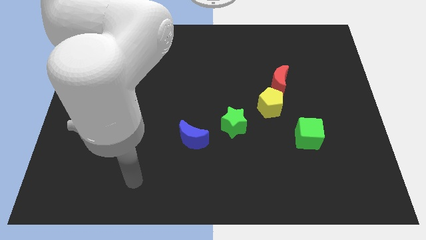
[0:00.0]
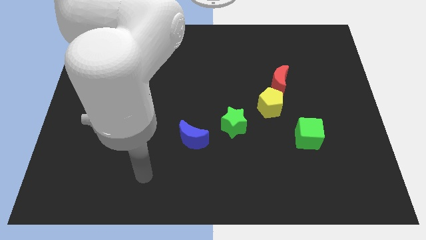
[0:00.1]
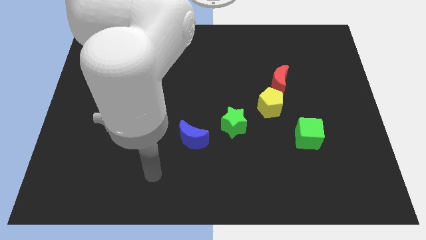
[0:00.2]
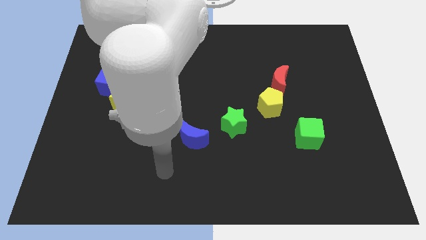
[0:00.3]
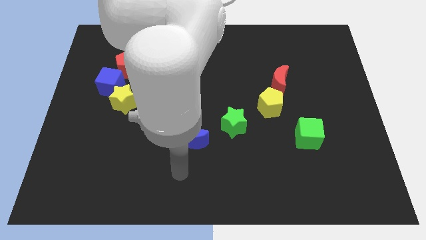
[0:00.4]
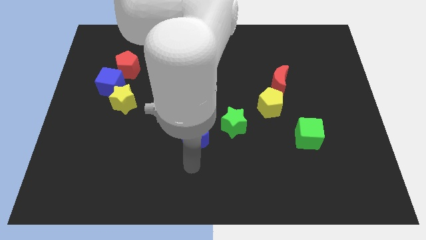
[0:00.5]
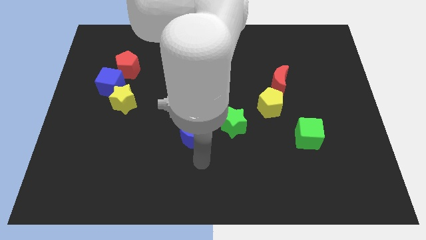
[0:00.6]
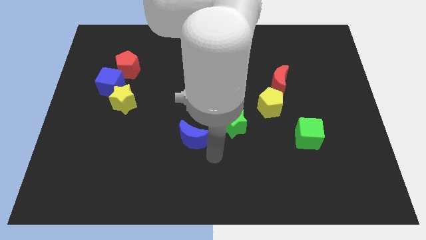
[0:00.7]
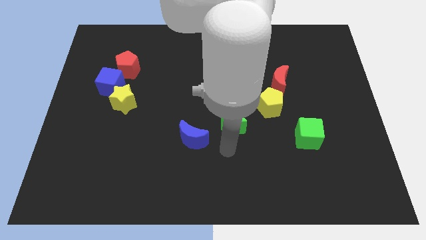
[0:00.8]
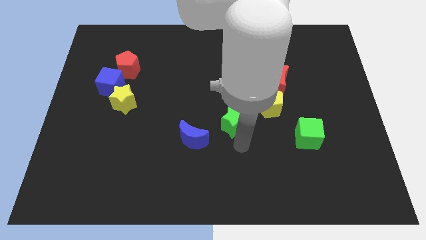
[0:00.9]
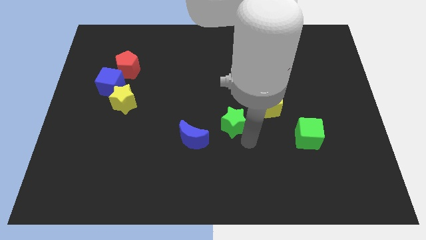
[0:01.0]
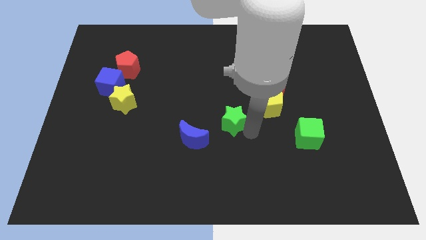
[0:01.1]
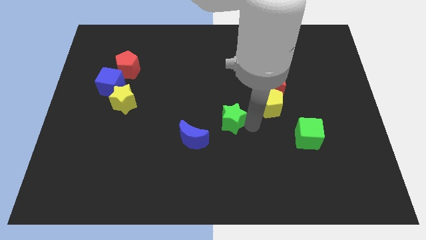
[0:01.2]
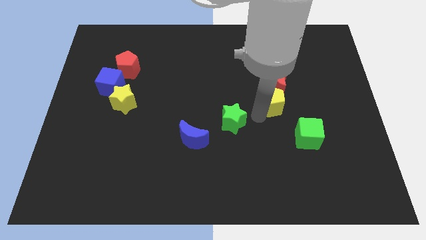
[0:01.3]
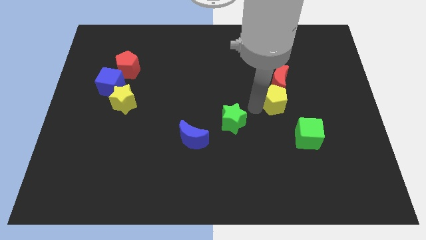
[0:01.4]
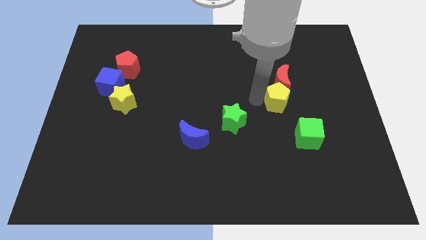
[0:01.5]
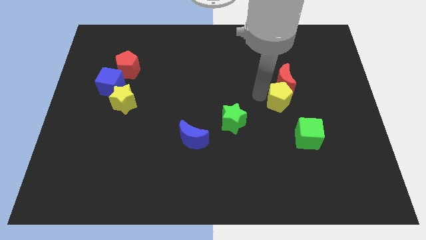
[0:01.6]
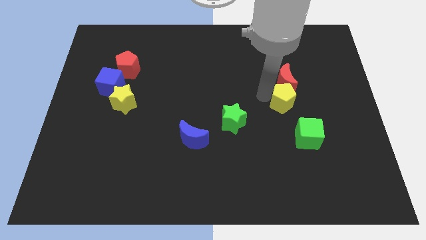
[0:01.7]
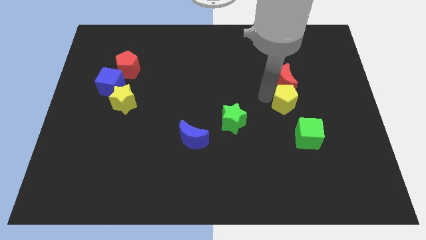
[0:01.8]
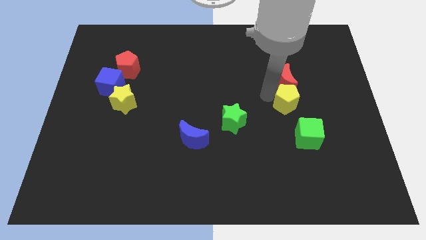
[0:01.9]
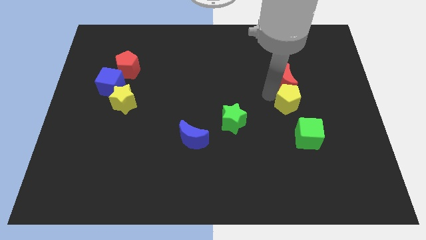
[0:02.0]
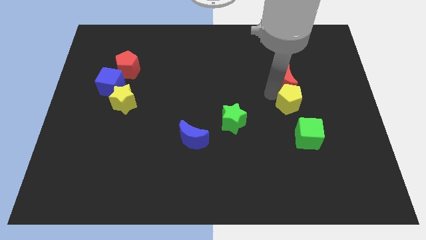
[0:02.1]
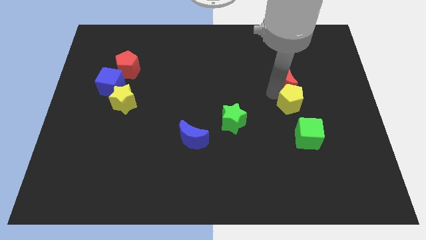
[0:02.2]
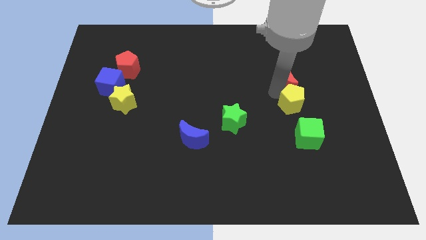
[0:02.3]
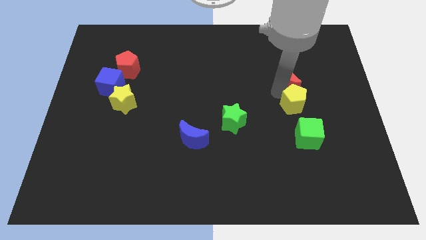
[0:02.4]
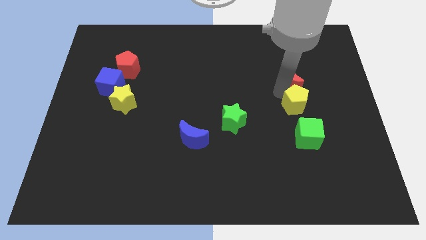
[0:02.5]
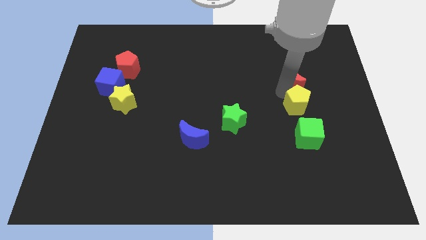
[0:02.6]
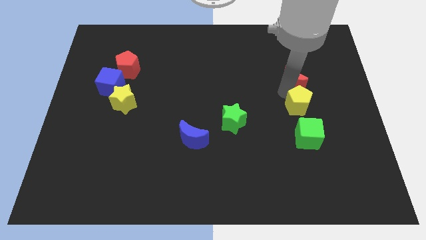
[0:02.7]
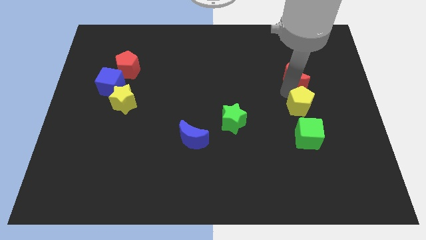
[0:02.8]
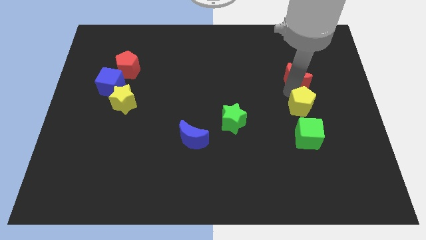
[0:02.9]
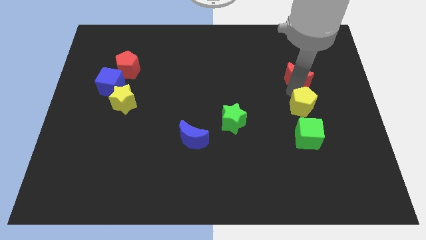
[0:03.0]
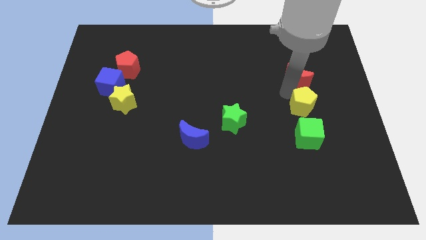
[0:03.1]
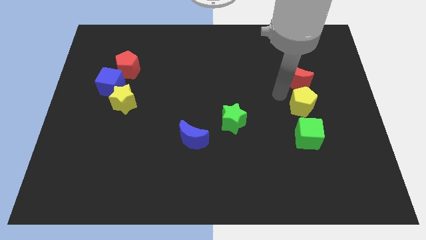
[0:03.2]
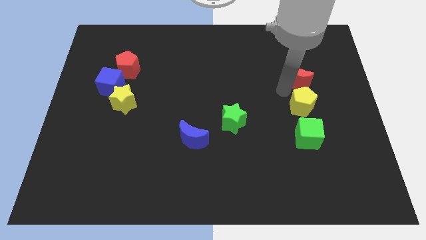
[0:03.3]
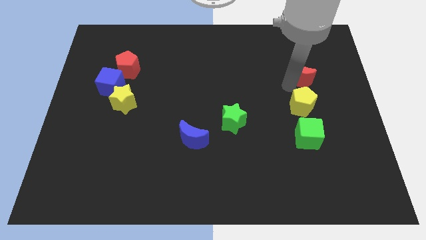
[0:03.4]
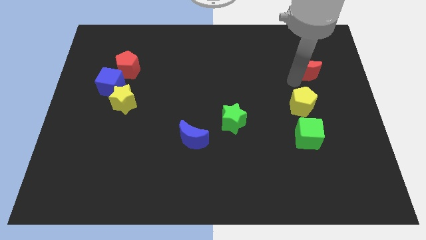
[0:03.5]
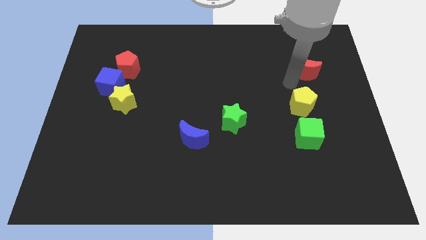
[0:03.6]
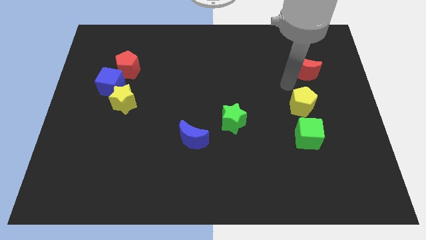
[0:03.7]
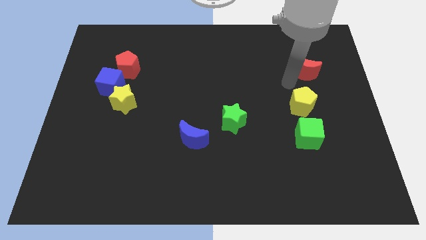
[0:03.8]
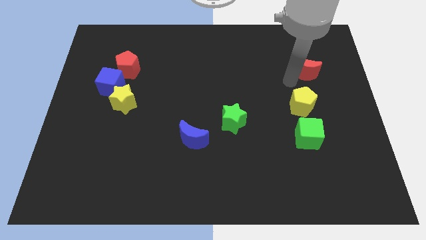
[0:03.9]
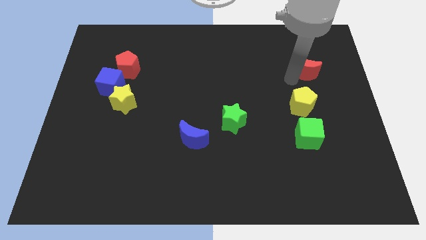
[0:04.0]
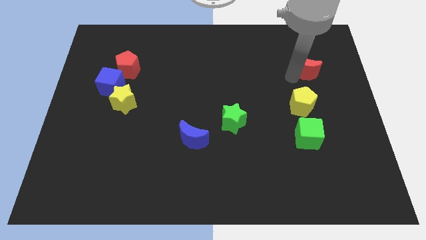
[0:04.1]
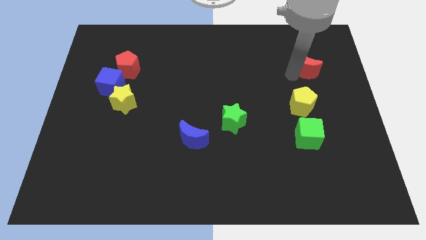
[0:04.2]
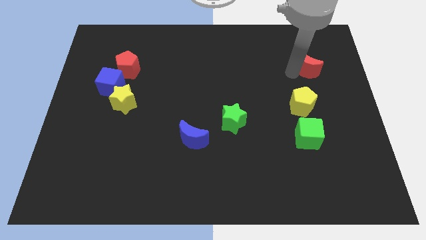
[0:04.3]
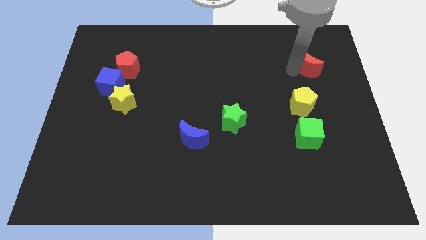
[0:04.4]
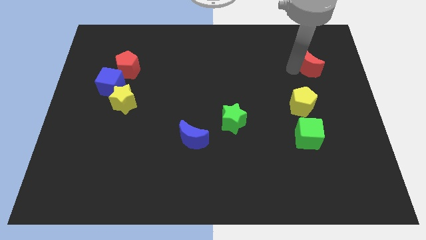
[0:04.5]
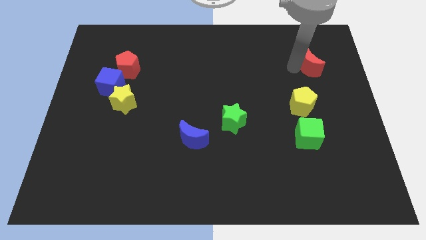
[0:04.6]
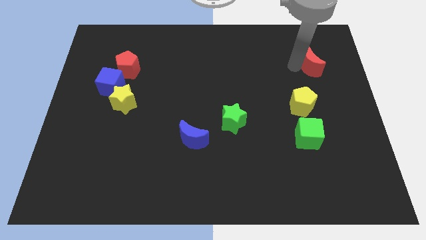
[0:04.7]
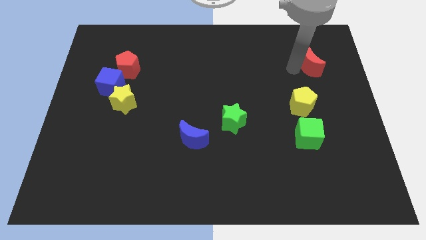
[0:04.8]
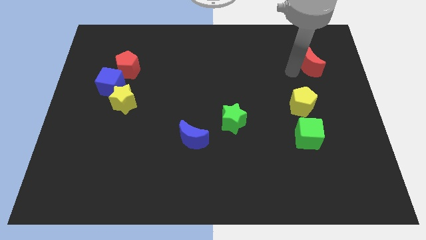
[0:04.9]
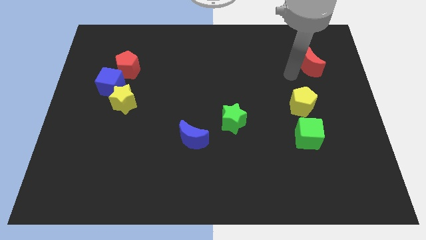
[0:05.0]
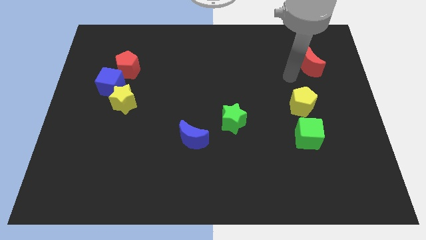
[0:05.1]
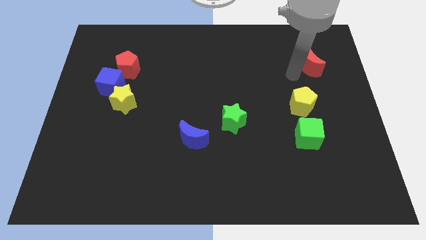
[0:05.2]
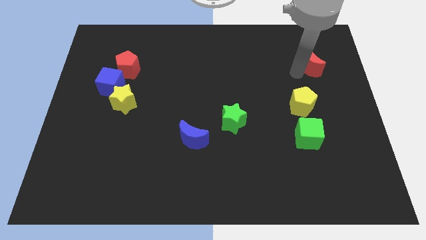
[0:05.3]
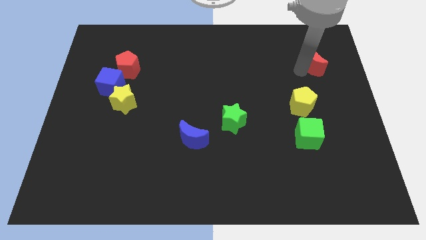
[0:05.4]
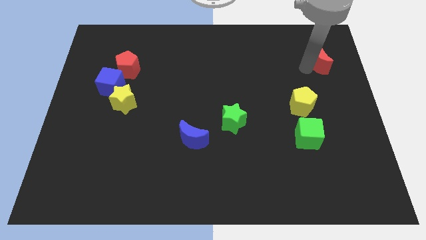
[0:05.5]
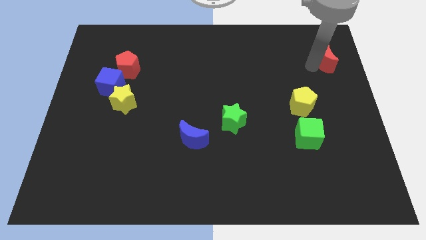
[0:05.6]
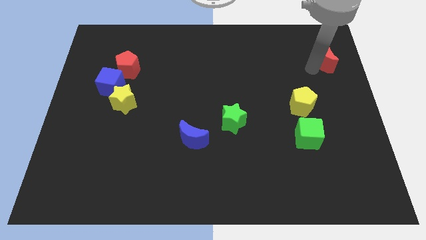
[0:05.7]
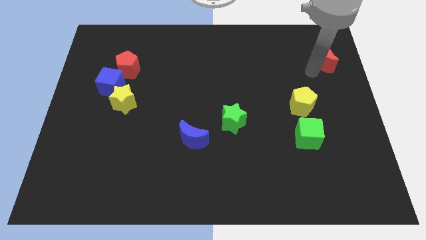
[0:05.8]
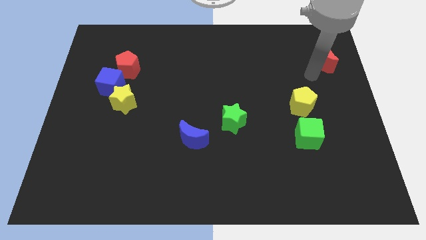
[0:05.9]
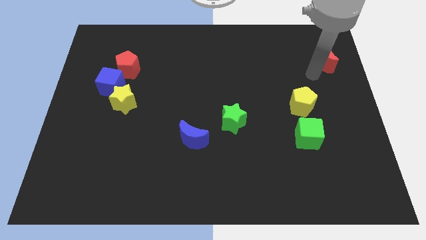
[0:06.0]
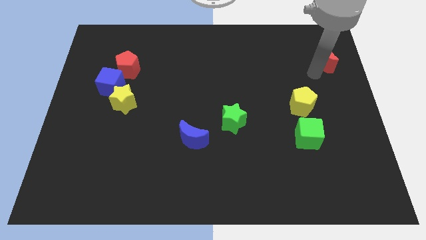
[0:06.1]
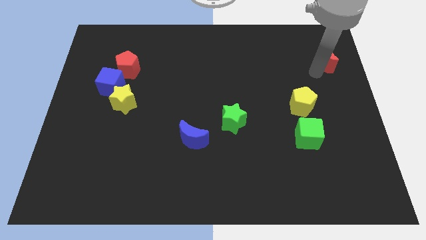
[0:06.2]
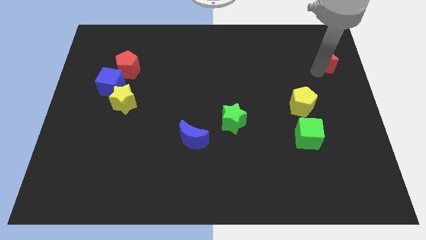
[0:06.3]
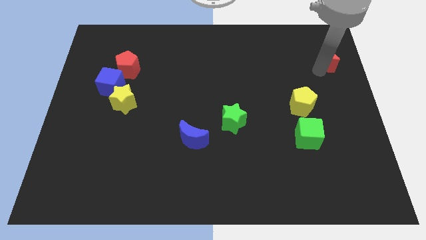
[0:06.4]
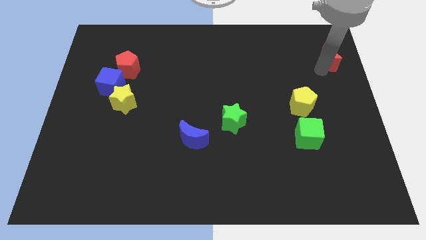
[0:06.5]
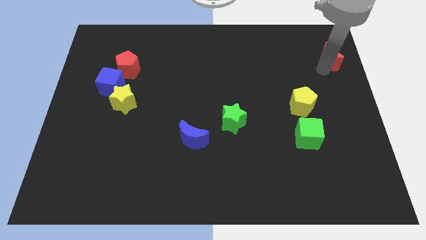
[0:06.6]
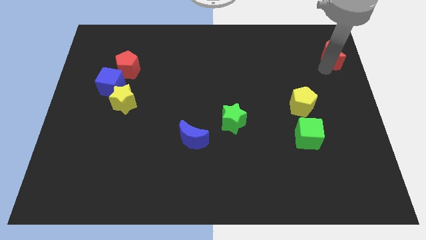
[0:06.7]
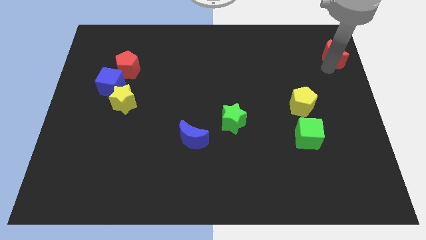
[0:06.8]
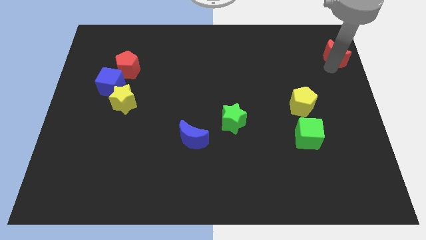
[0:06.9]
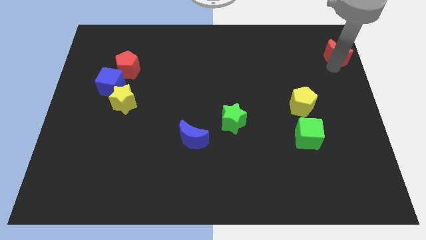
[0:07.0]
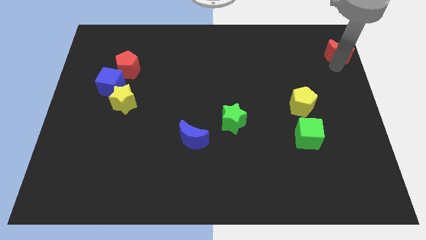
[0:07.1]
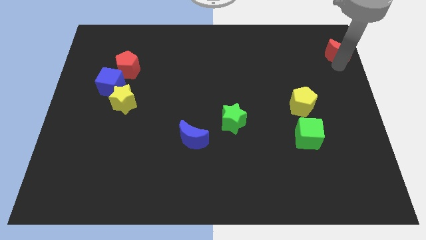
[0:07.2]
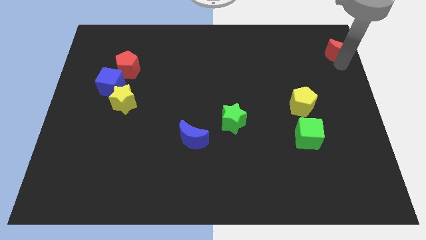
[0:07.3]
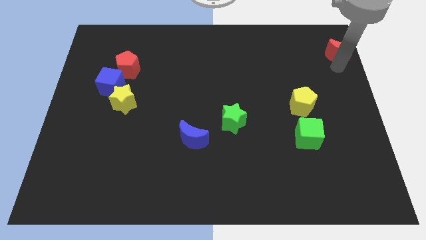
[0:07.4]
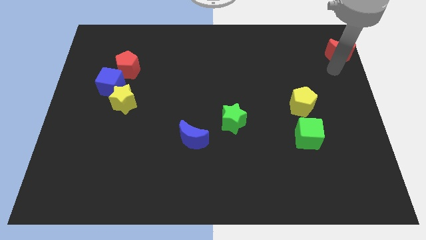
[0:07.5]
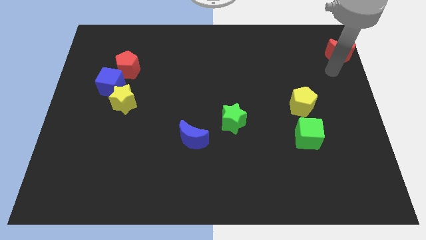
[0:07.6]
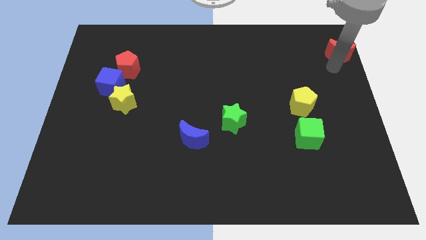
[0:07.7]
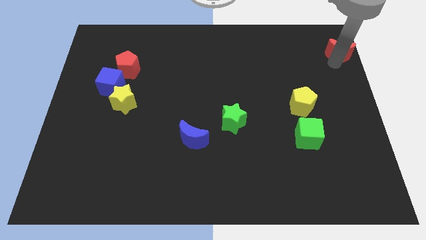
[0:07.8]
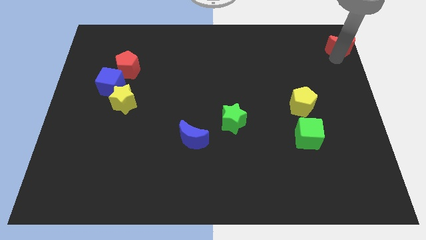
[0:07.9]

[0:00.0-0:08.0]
put the red moon to the top right of the board
